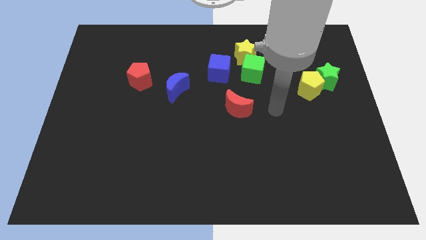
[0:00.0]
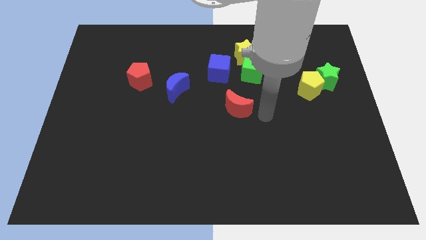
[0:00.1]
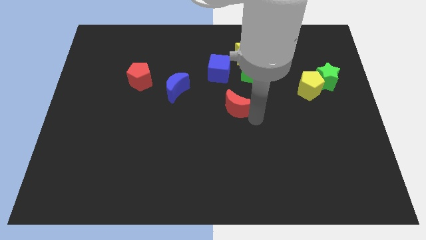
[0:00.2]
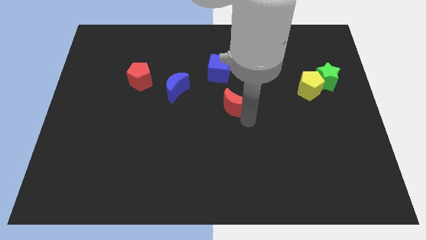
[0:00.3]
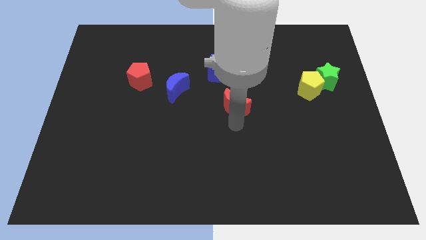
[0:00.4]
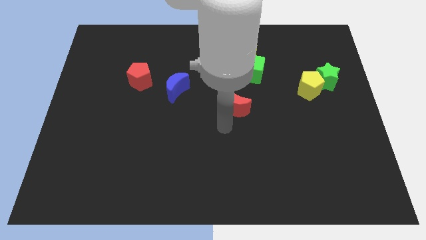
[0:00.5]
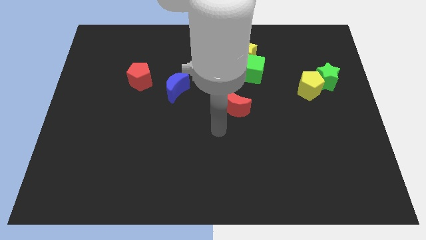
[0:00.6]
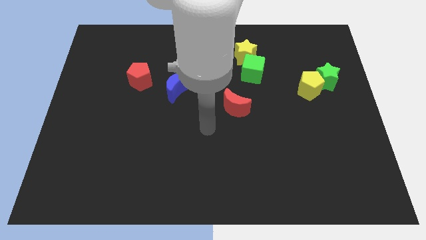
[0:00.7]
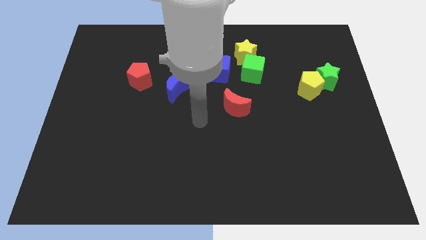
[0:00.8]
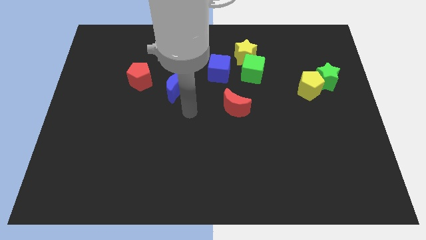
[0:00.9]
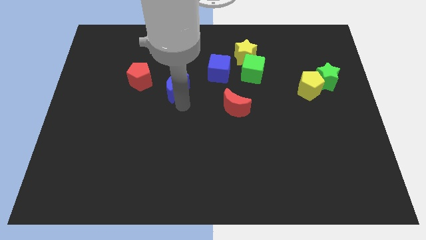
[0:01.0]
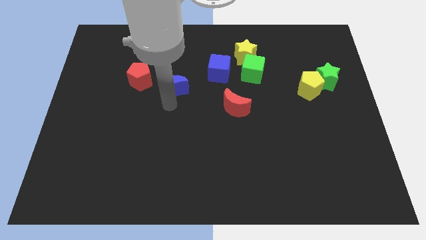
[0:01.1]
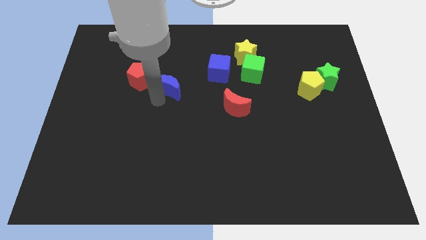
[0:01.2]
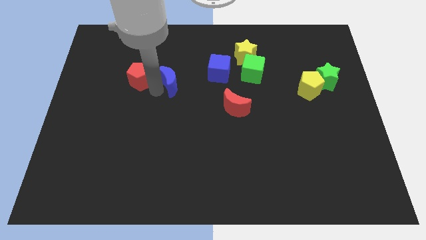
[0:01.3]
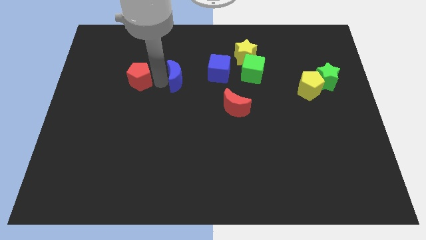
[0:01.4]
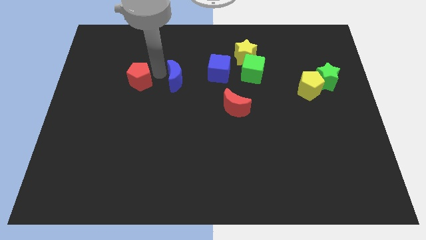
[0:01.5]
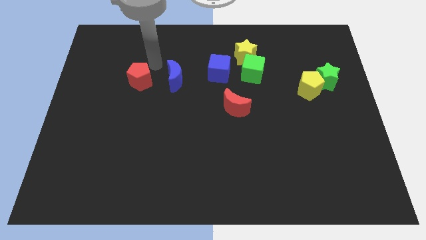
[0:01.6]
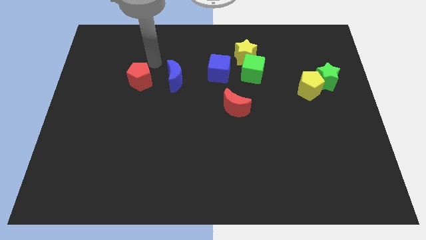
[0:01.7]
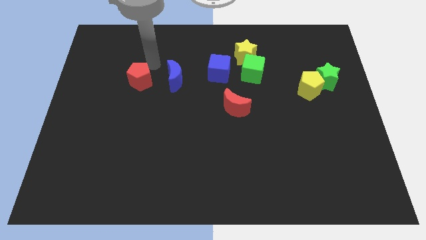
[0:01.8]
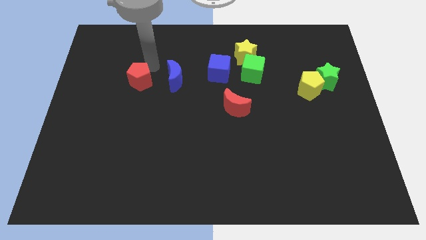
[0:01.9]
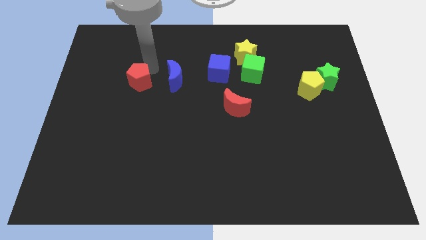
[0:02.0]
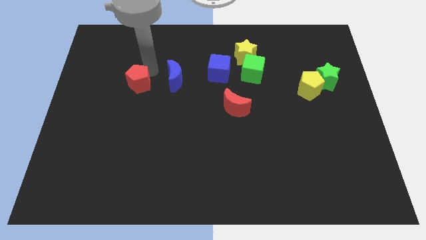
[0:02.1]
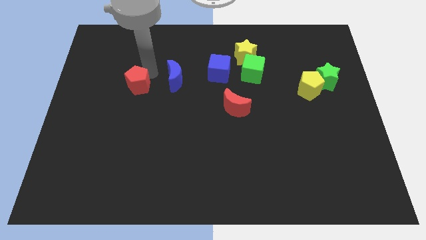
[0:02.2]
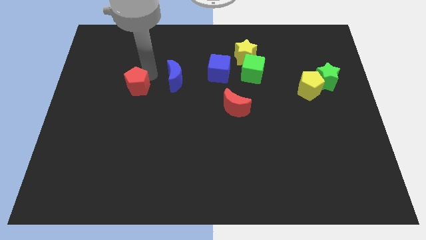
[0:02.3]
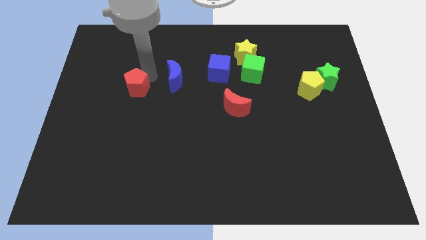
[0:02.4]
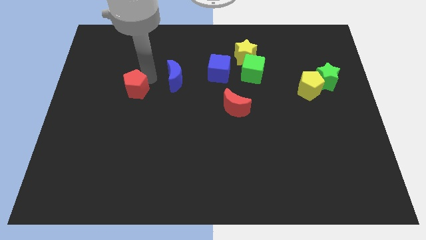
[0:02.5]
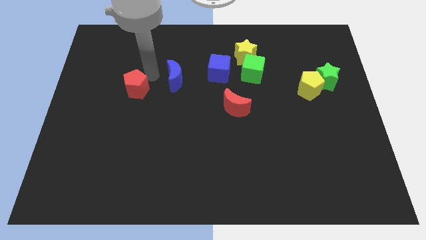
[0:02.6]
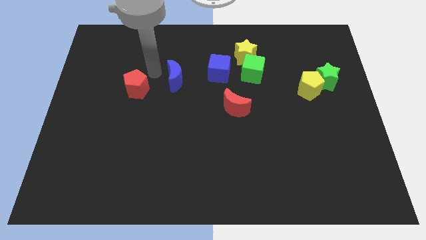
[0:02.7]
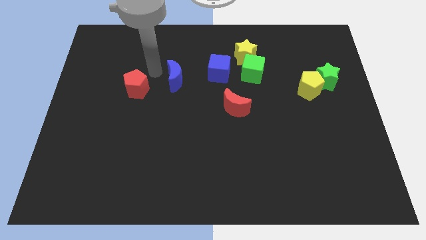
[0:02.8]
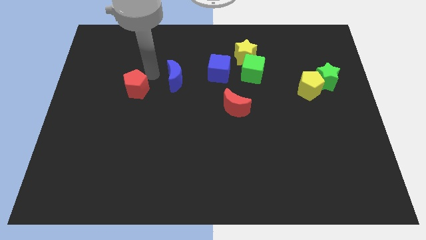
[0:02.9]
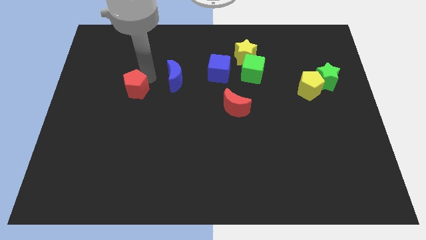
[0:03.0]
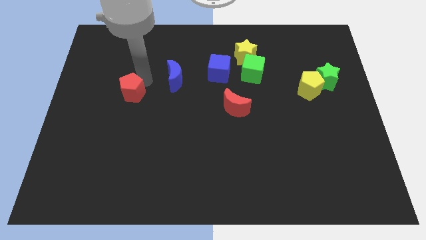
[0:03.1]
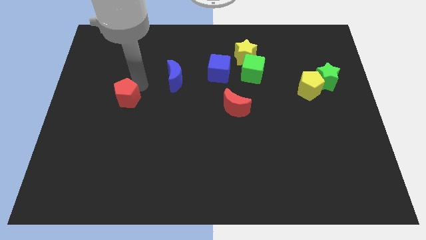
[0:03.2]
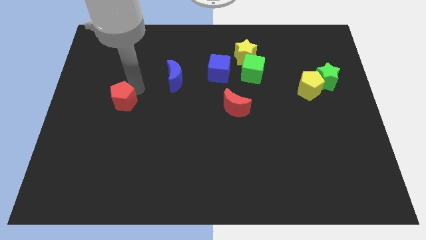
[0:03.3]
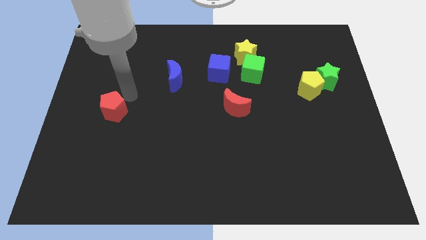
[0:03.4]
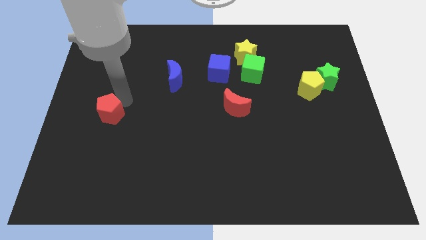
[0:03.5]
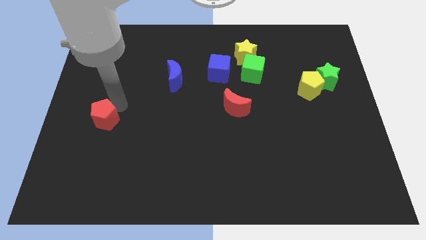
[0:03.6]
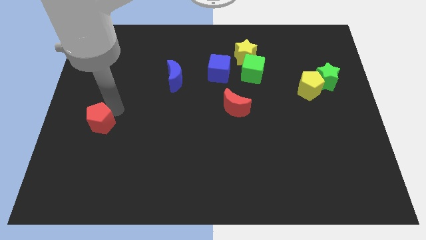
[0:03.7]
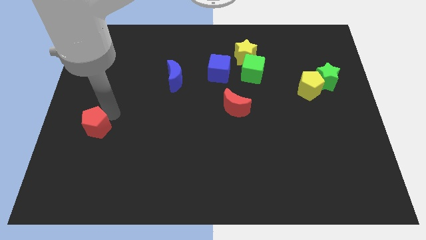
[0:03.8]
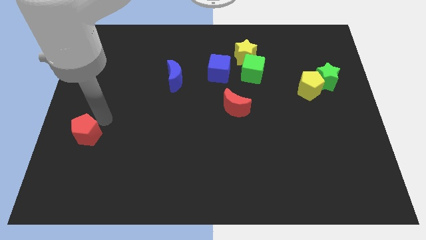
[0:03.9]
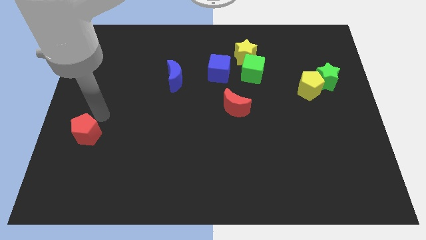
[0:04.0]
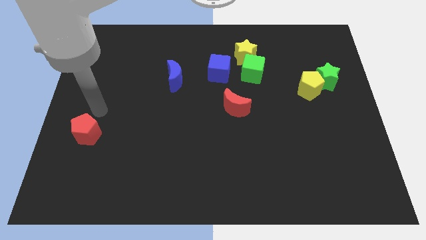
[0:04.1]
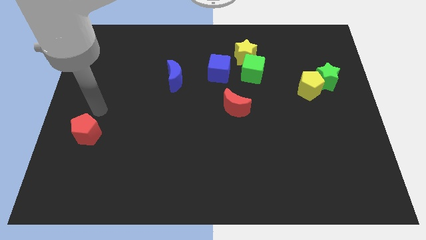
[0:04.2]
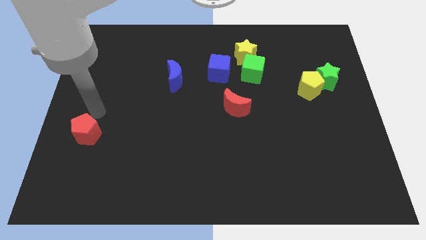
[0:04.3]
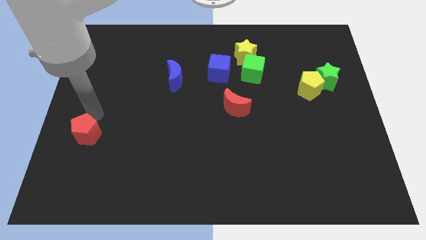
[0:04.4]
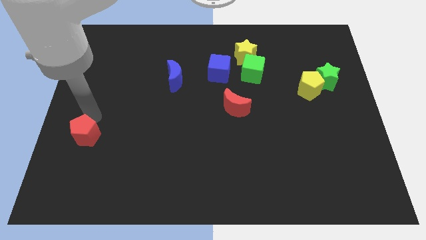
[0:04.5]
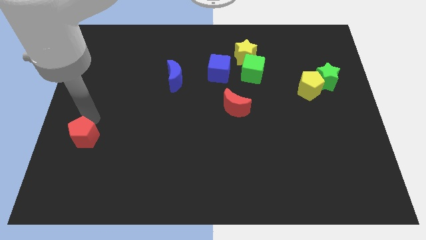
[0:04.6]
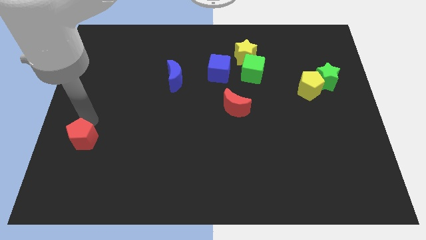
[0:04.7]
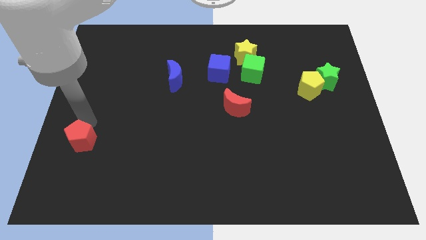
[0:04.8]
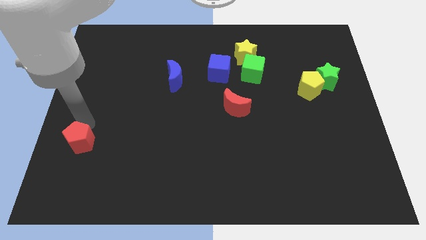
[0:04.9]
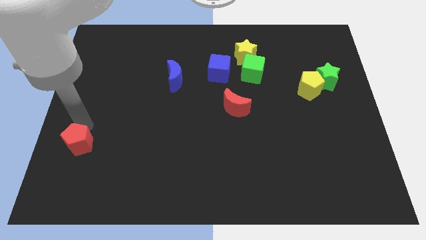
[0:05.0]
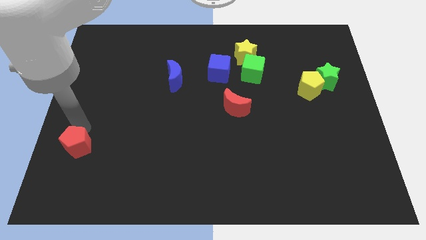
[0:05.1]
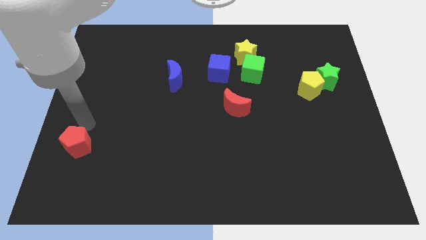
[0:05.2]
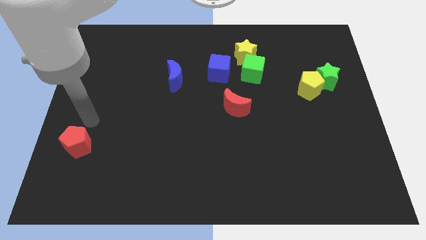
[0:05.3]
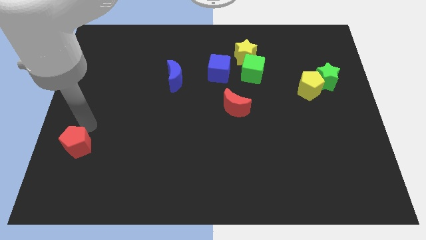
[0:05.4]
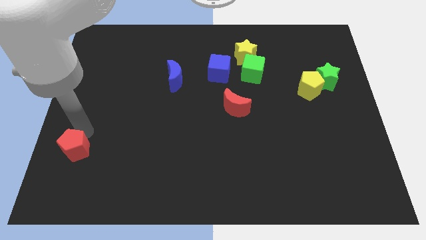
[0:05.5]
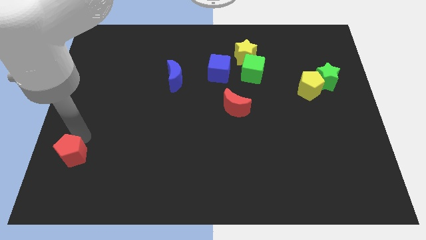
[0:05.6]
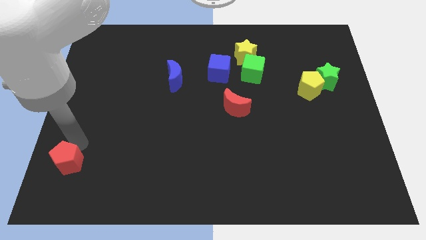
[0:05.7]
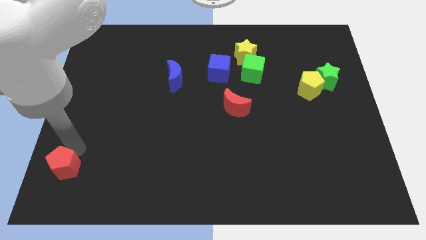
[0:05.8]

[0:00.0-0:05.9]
push the red pentagon to the bottom left corner

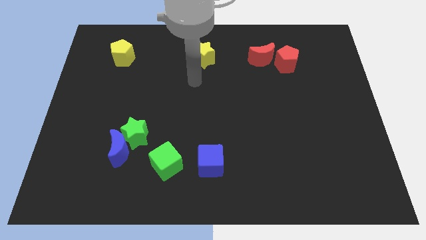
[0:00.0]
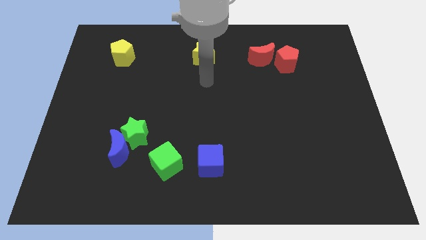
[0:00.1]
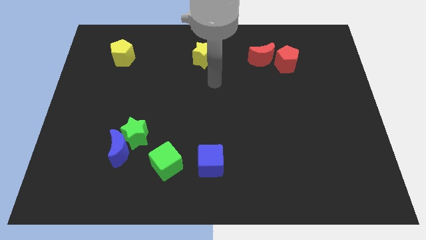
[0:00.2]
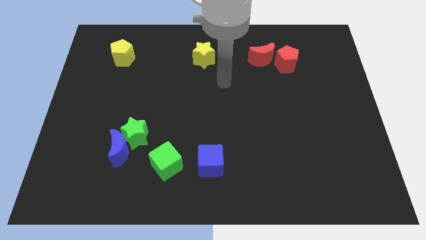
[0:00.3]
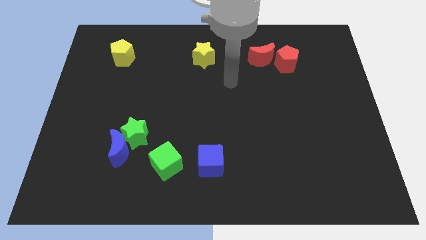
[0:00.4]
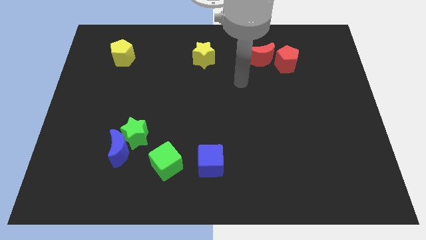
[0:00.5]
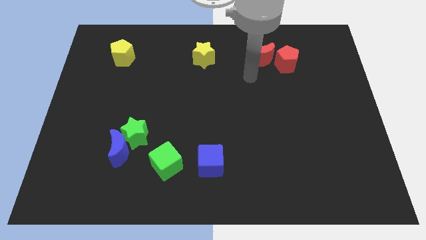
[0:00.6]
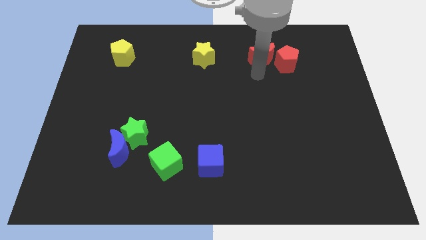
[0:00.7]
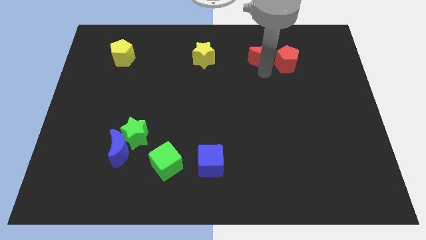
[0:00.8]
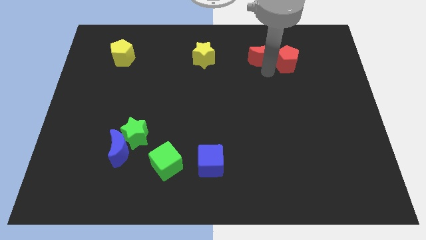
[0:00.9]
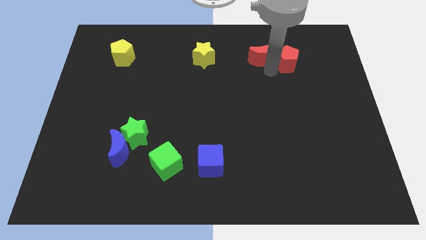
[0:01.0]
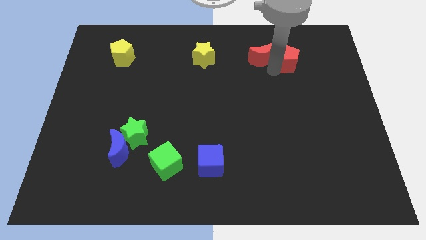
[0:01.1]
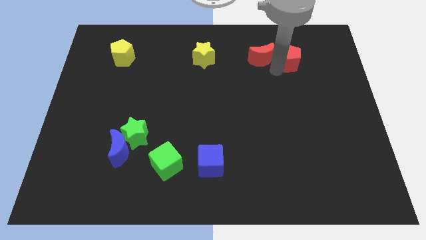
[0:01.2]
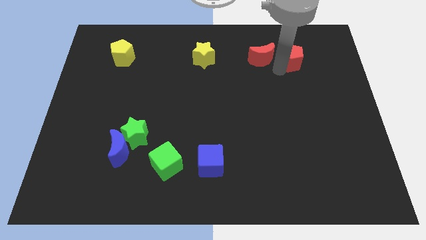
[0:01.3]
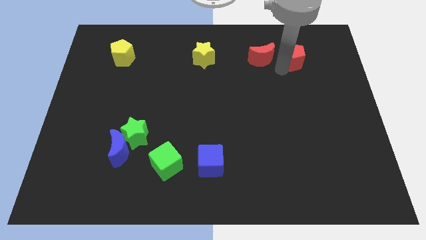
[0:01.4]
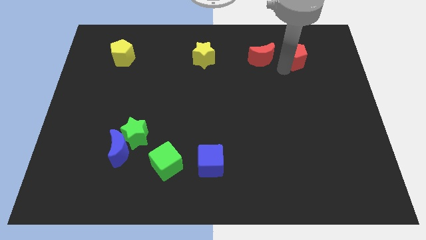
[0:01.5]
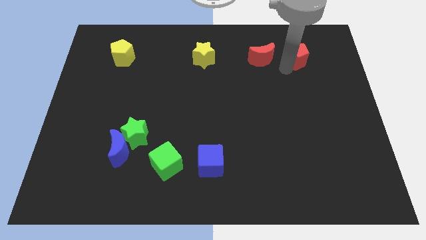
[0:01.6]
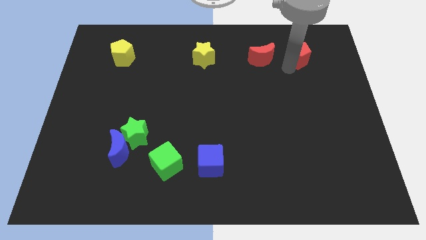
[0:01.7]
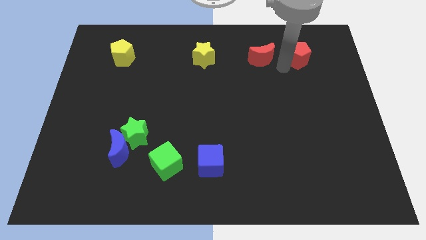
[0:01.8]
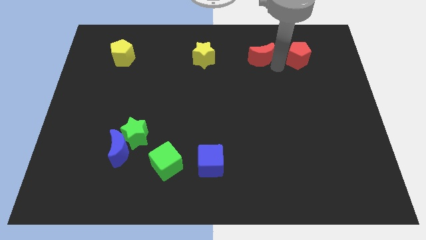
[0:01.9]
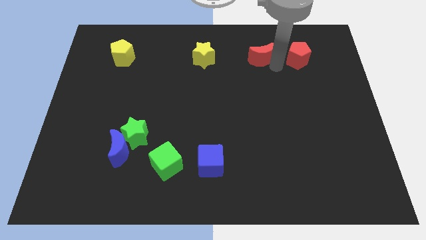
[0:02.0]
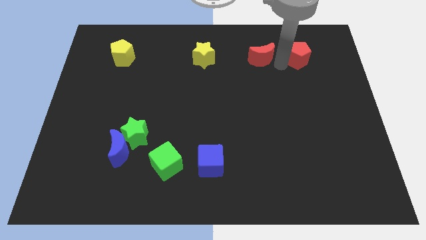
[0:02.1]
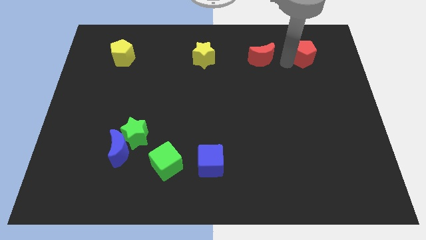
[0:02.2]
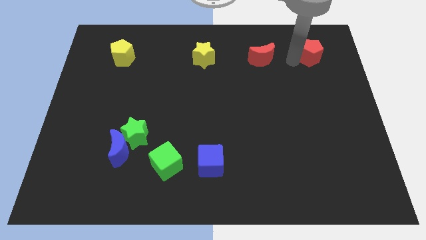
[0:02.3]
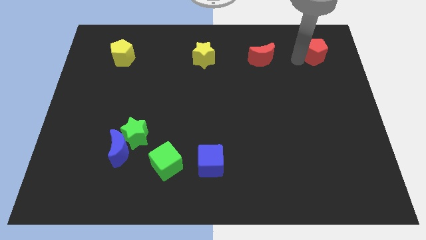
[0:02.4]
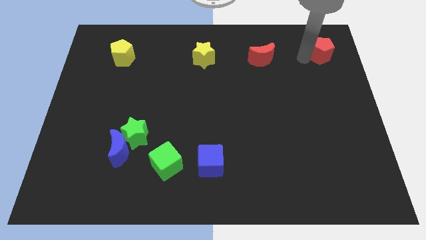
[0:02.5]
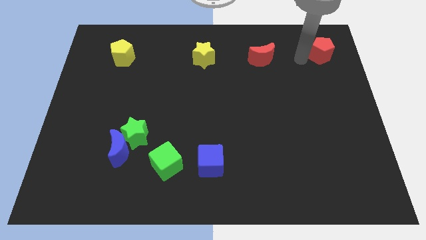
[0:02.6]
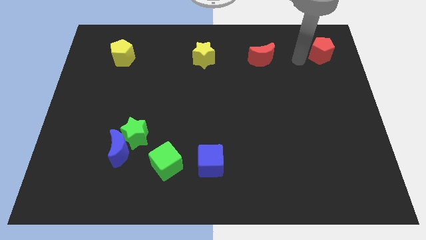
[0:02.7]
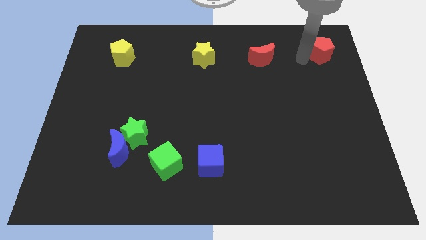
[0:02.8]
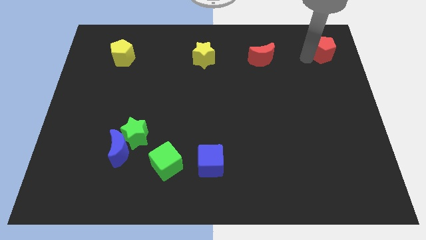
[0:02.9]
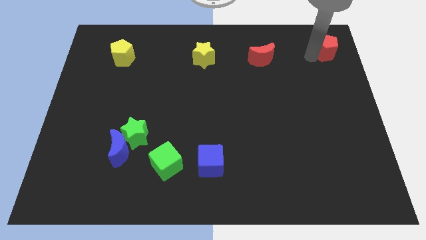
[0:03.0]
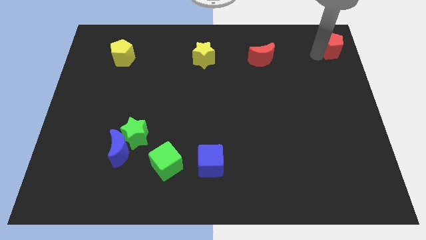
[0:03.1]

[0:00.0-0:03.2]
put the red pentagon to the top right of the board
